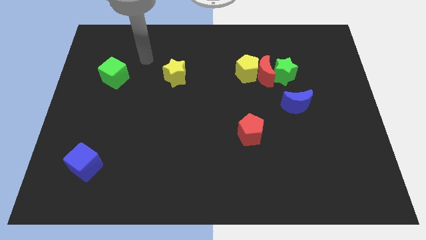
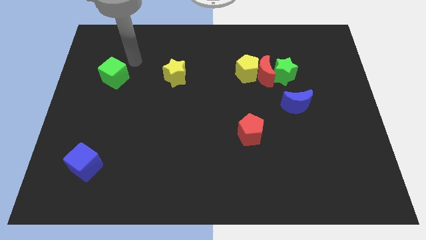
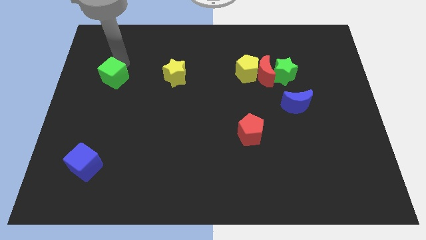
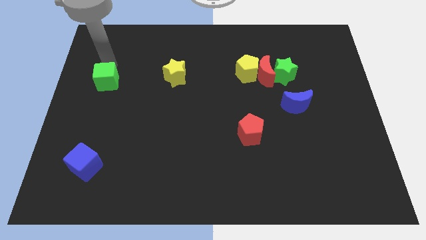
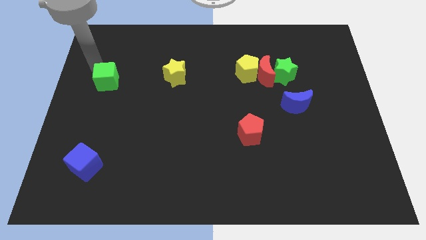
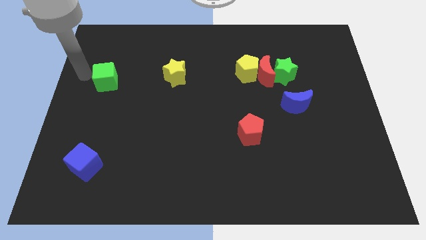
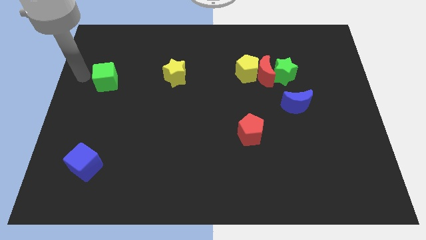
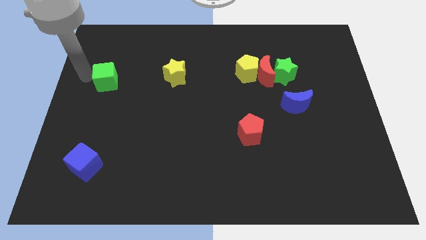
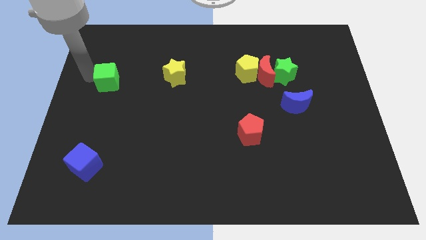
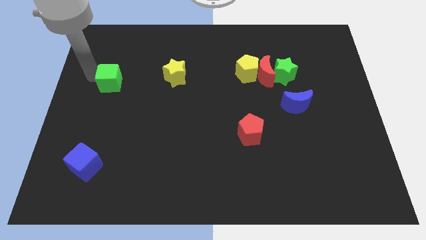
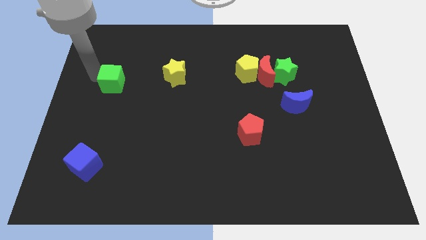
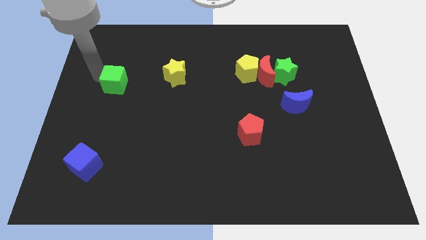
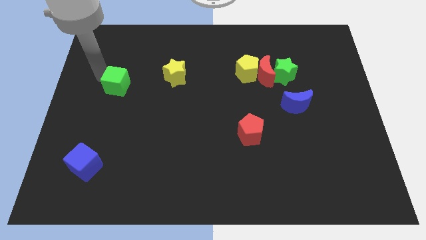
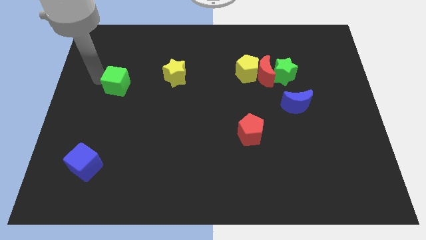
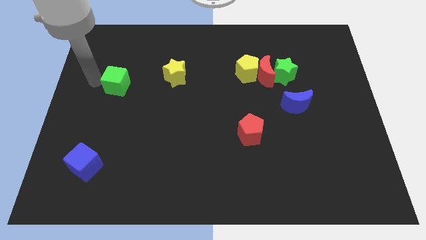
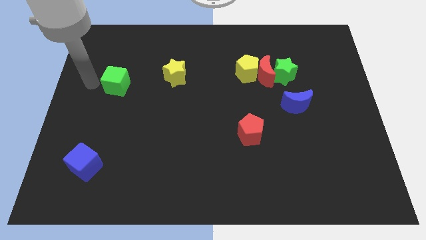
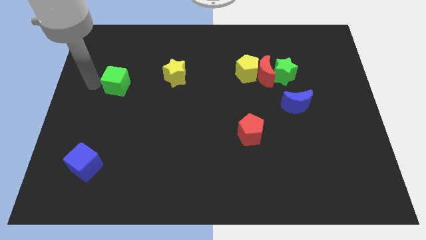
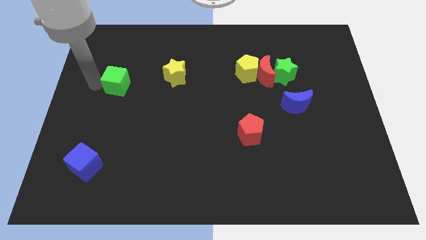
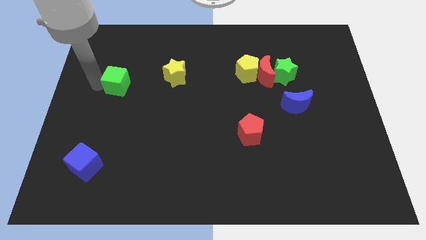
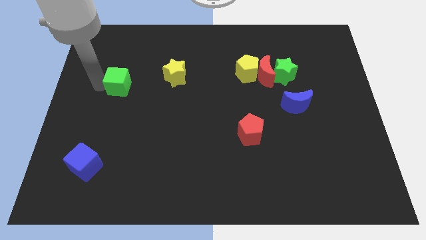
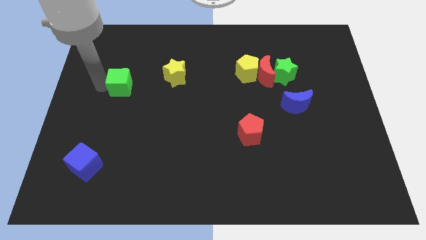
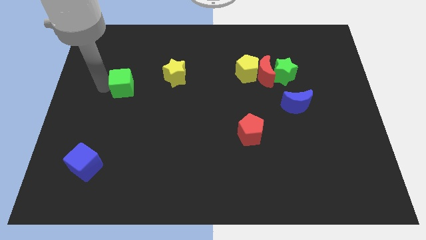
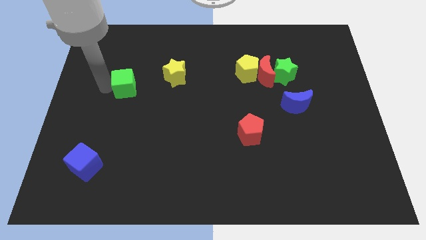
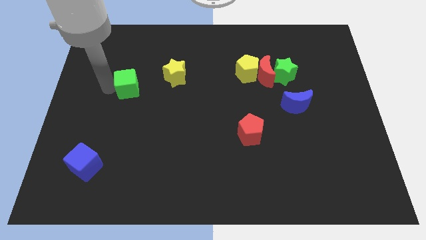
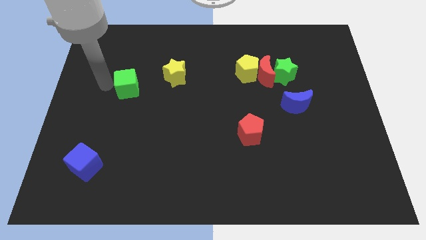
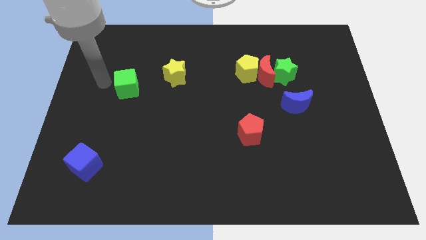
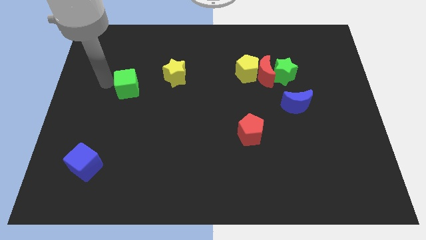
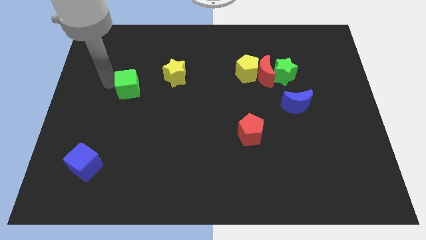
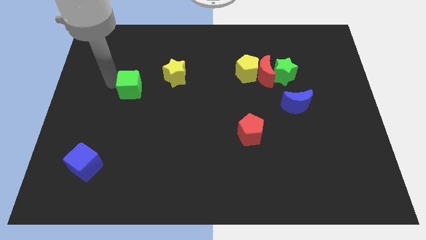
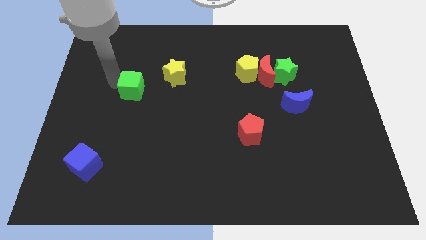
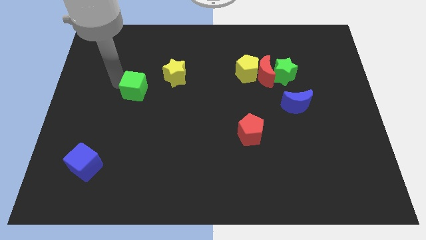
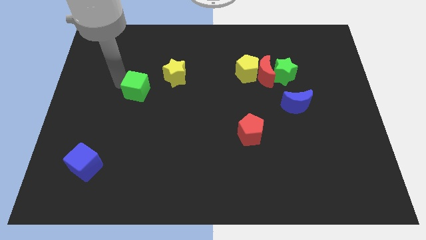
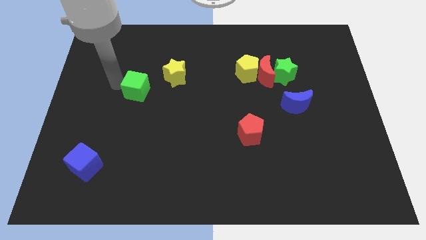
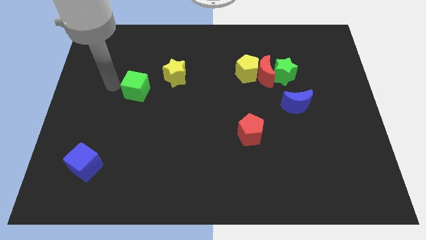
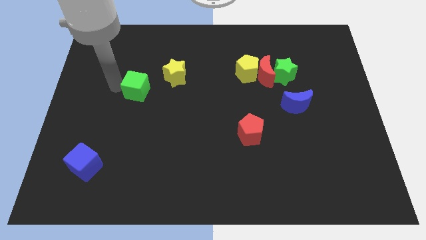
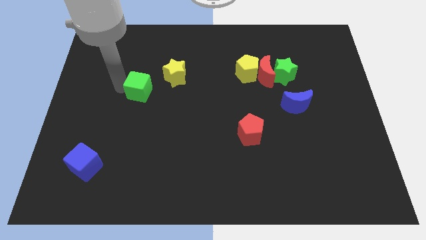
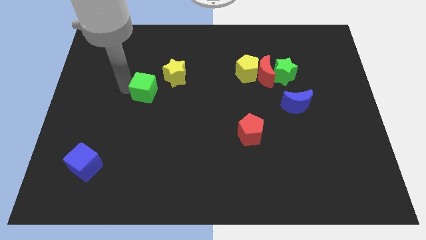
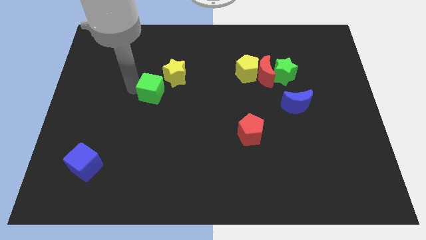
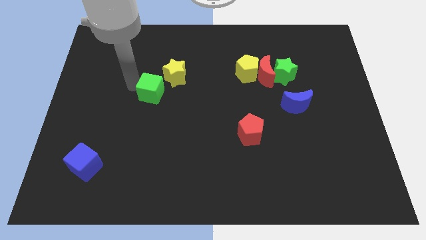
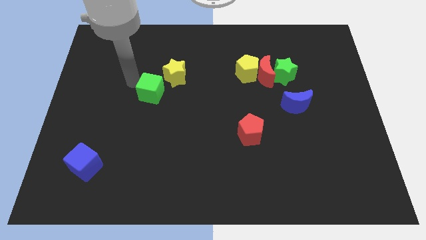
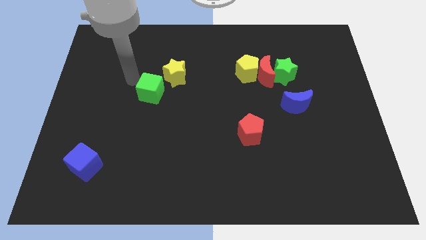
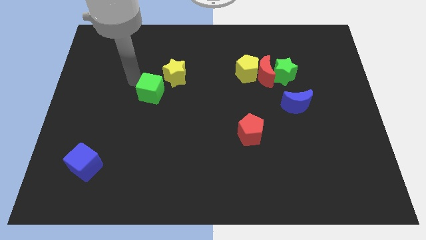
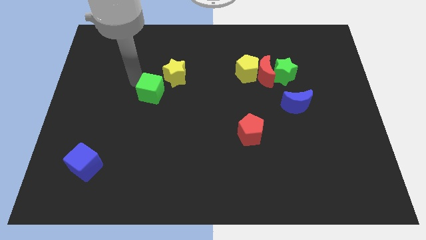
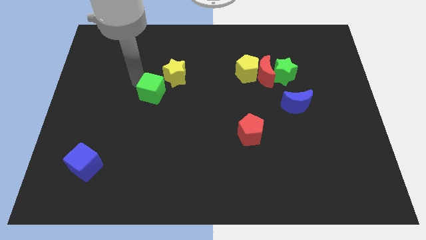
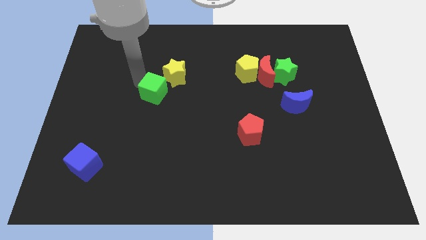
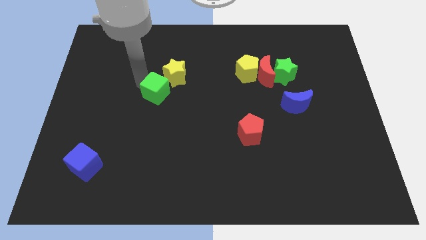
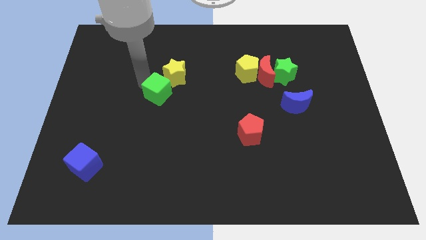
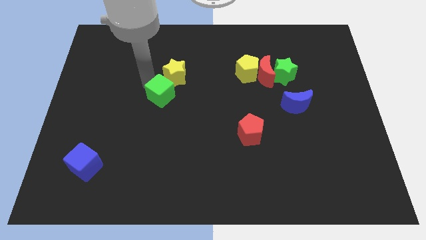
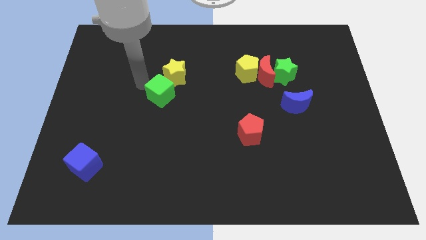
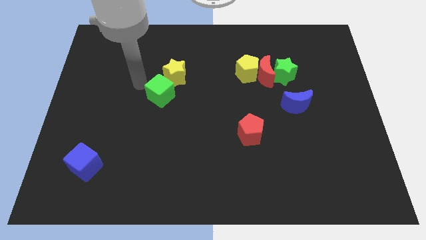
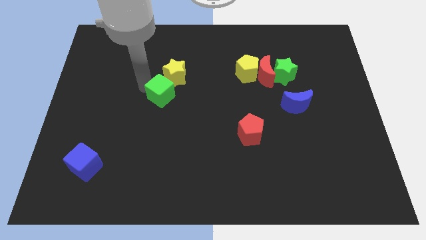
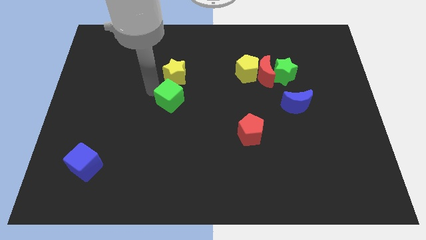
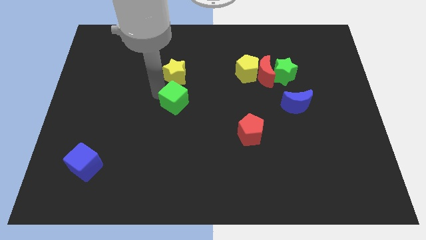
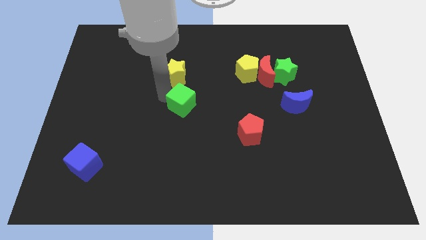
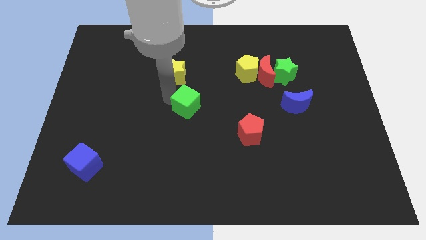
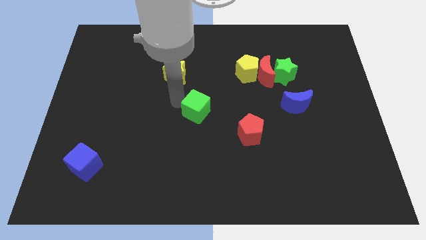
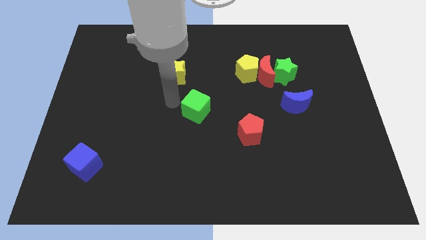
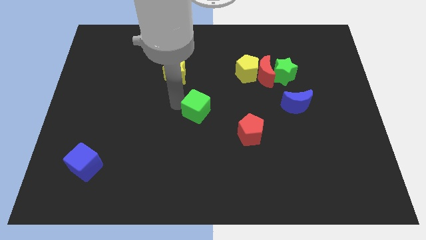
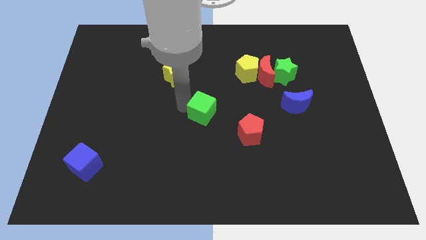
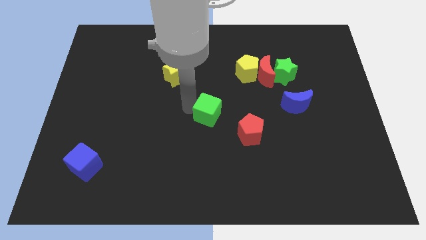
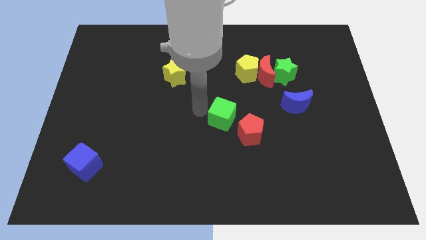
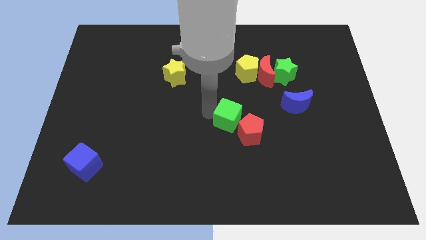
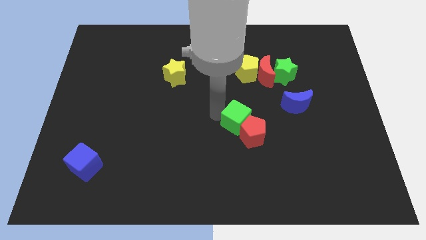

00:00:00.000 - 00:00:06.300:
put the green cube towards the red pentagon
